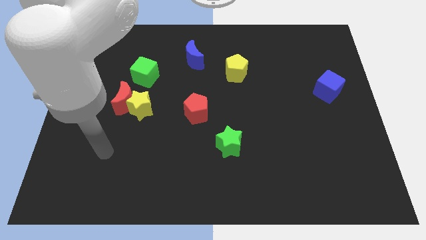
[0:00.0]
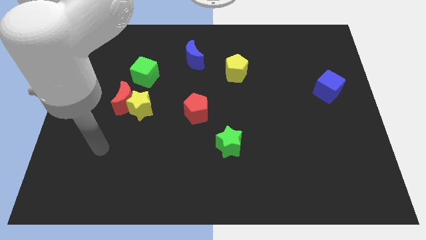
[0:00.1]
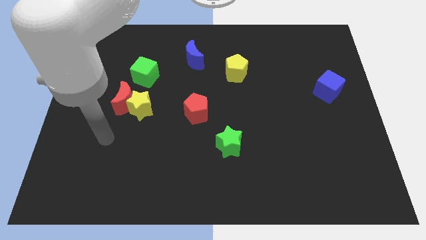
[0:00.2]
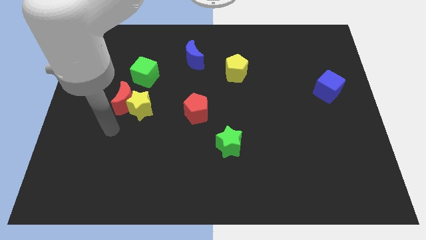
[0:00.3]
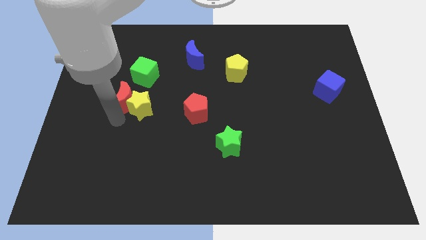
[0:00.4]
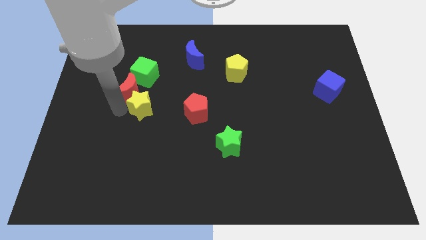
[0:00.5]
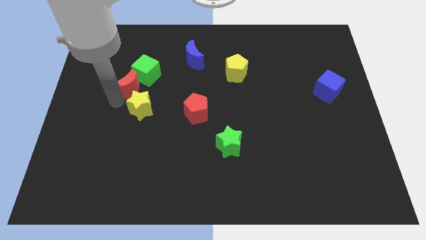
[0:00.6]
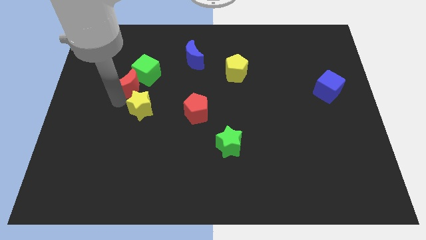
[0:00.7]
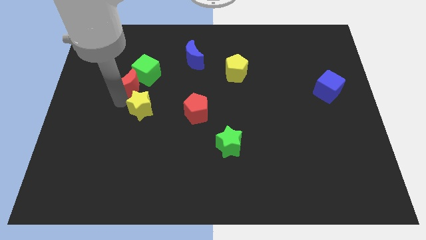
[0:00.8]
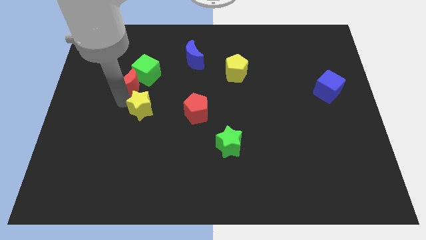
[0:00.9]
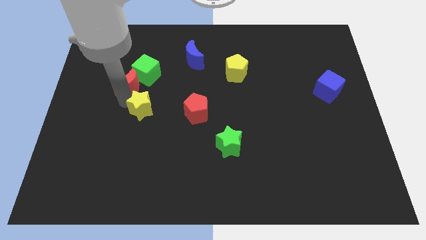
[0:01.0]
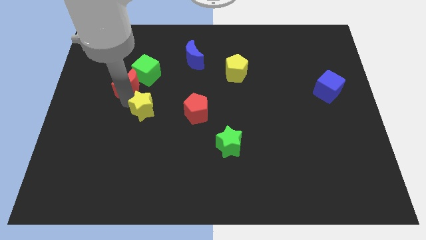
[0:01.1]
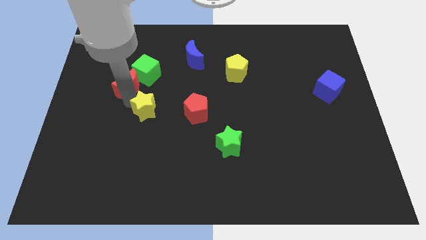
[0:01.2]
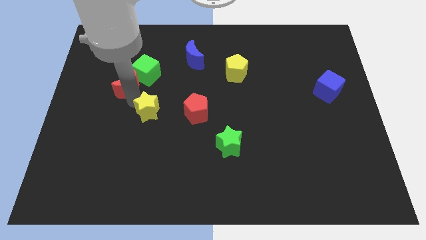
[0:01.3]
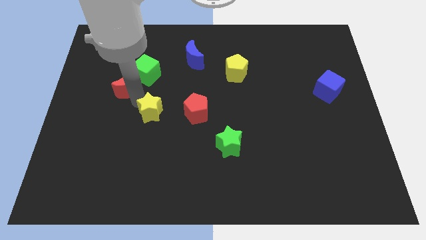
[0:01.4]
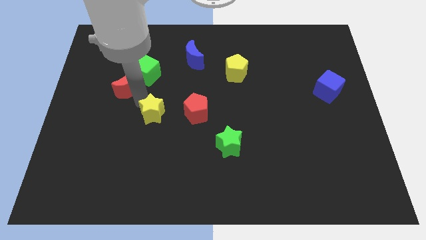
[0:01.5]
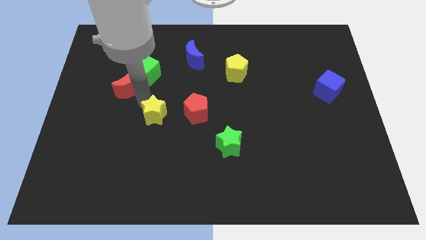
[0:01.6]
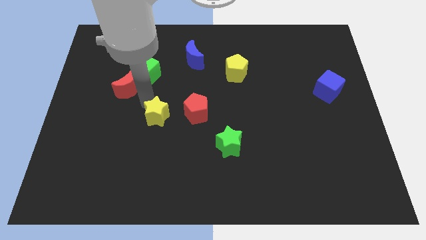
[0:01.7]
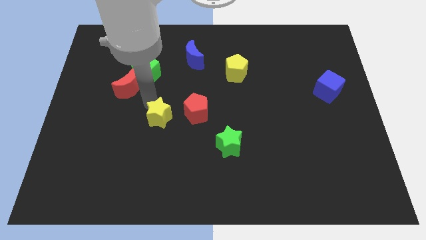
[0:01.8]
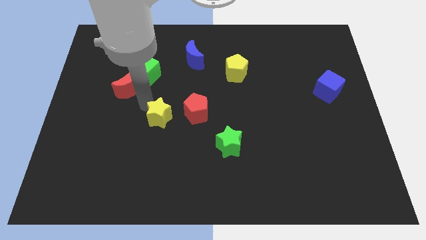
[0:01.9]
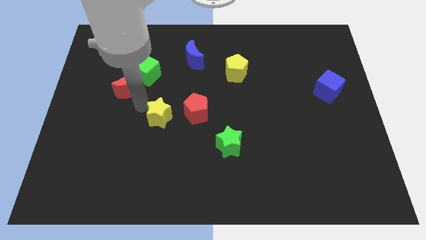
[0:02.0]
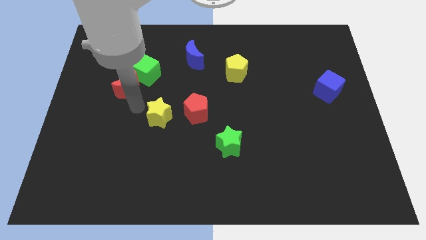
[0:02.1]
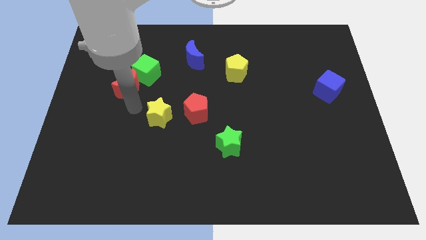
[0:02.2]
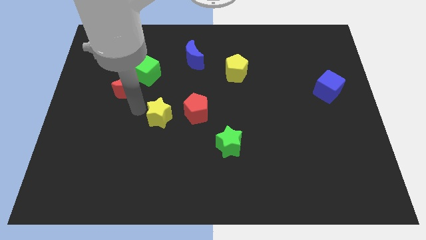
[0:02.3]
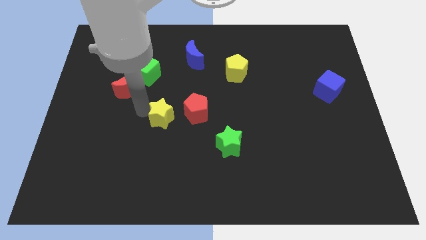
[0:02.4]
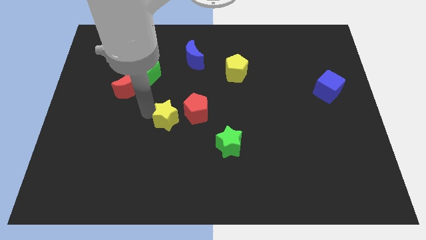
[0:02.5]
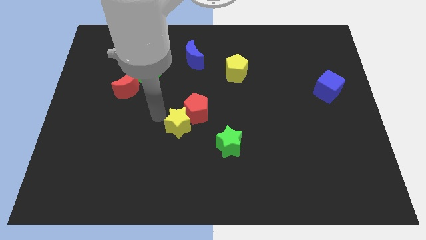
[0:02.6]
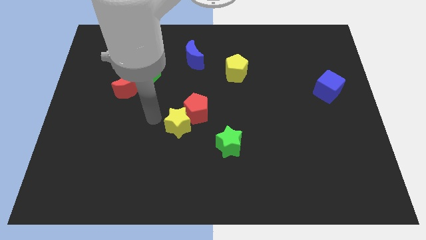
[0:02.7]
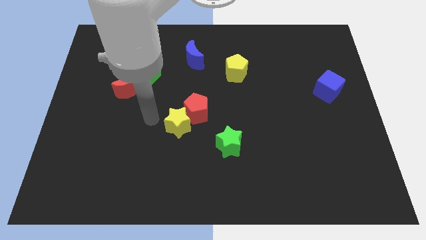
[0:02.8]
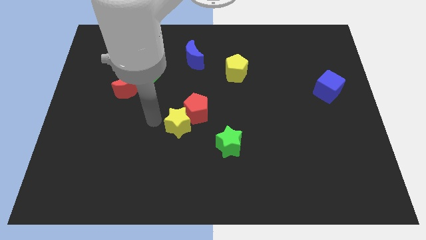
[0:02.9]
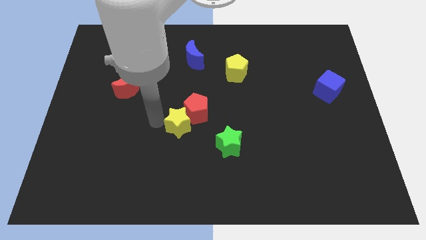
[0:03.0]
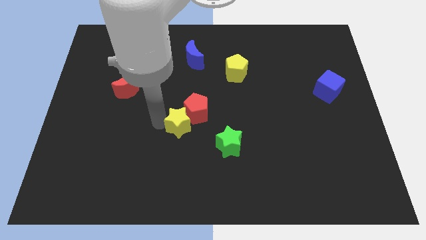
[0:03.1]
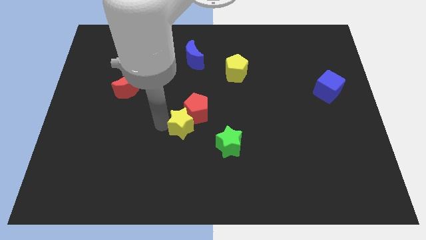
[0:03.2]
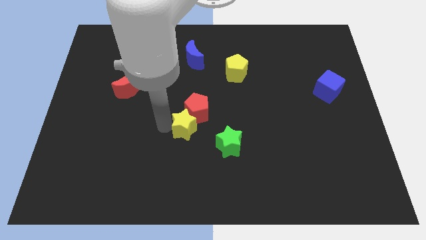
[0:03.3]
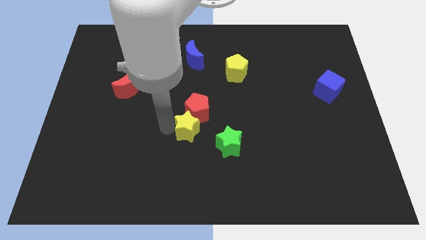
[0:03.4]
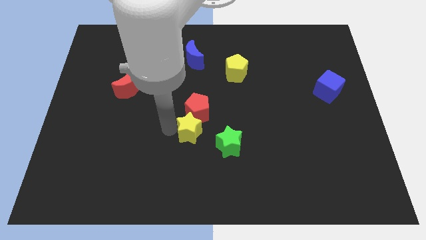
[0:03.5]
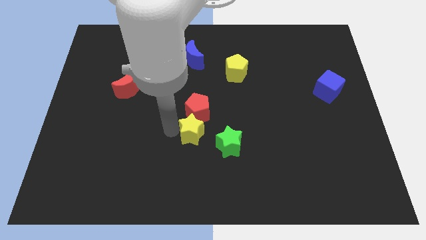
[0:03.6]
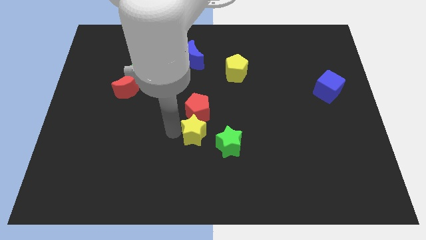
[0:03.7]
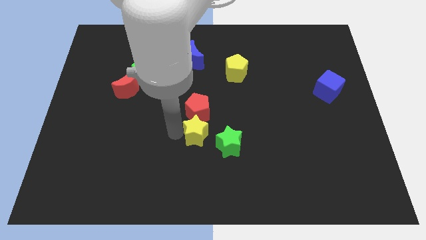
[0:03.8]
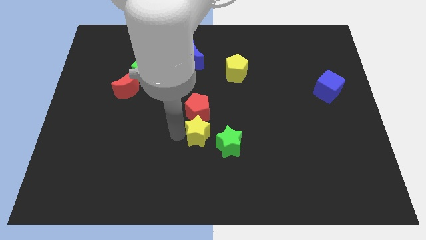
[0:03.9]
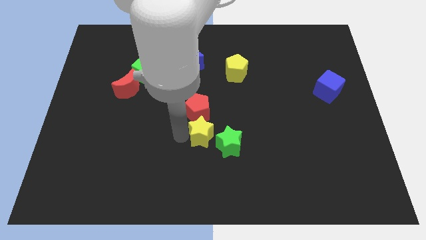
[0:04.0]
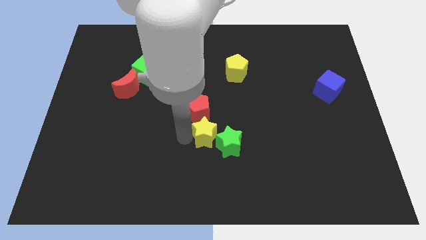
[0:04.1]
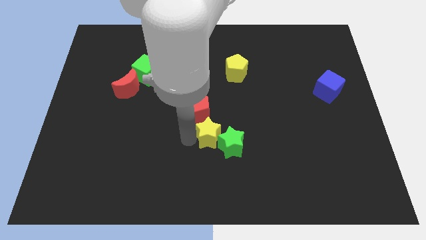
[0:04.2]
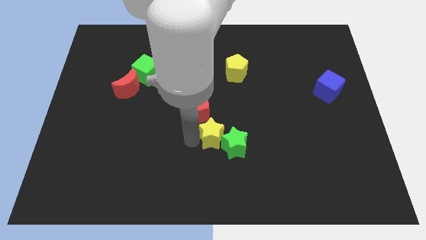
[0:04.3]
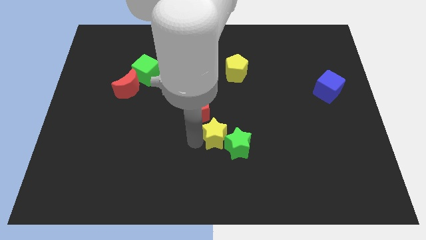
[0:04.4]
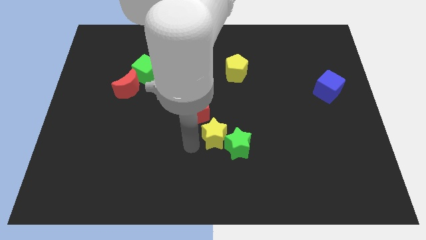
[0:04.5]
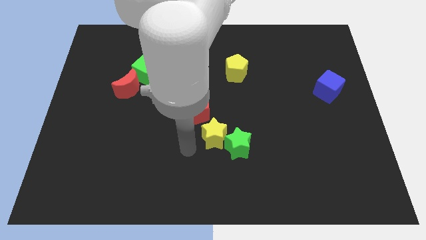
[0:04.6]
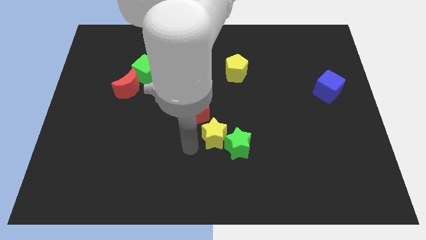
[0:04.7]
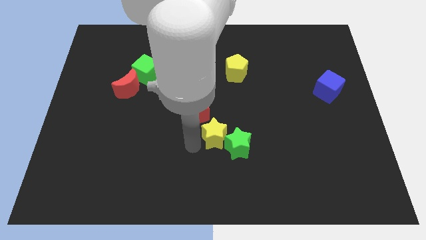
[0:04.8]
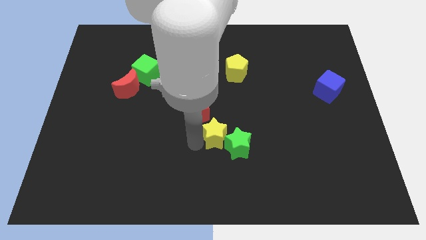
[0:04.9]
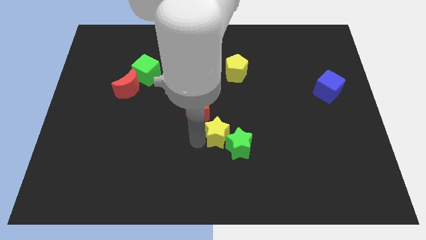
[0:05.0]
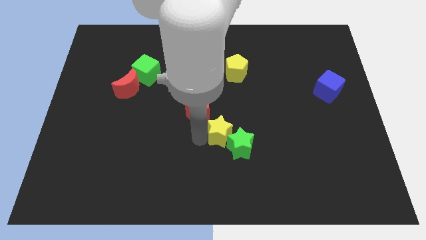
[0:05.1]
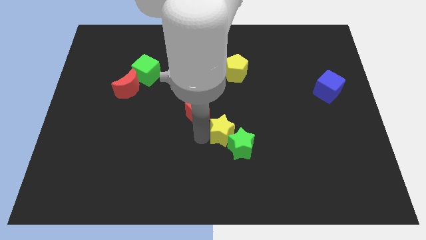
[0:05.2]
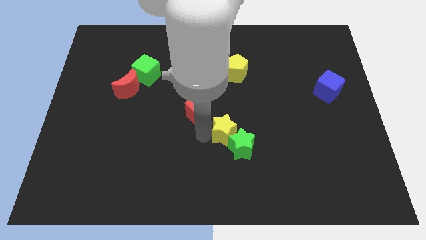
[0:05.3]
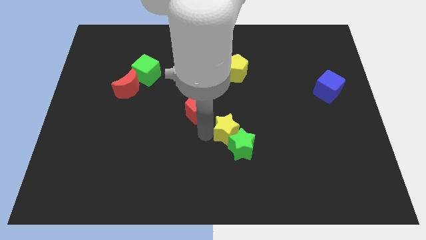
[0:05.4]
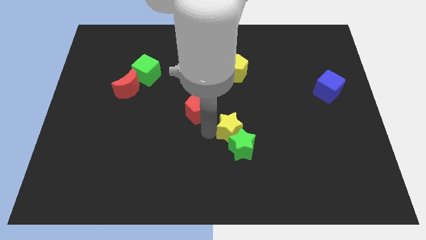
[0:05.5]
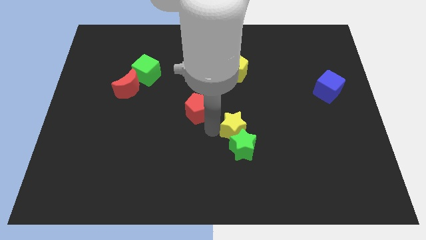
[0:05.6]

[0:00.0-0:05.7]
push the yellow star to the right

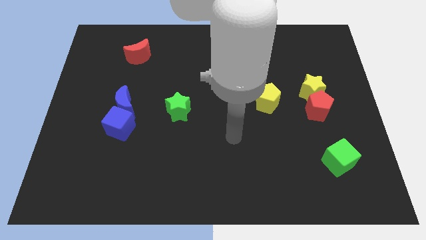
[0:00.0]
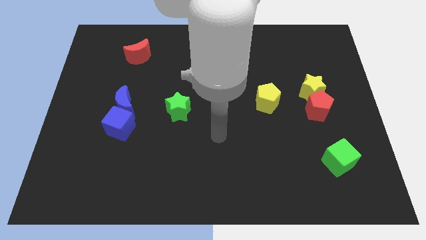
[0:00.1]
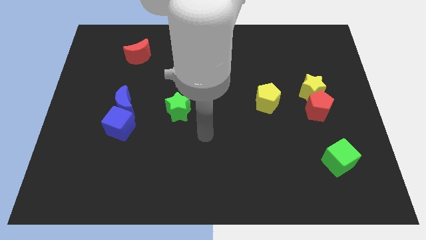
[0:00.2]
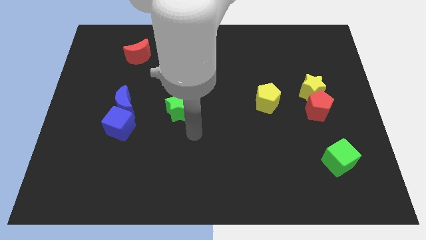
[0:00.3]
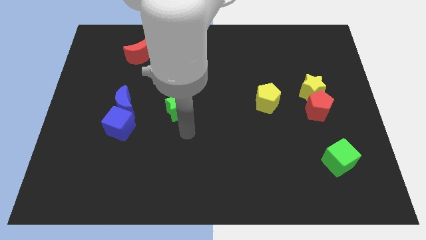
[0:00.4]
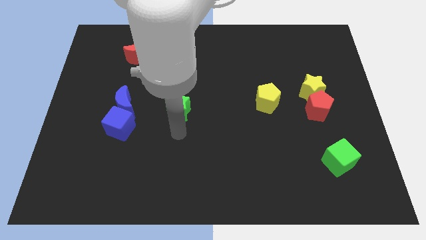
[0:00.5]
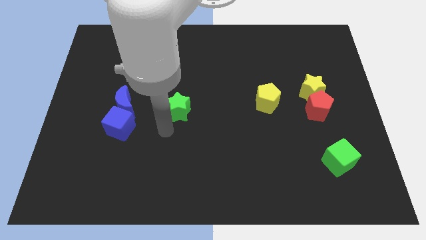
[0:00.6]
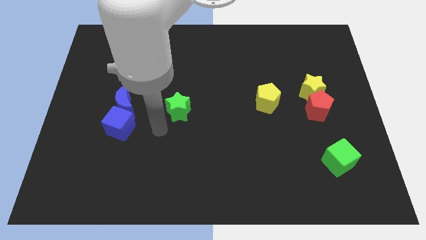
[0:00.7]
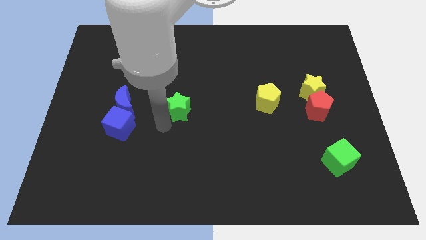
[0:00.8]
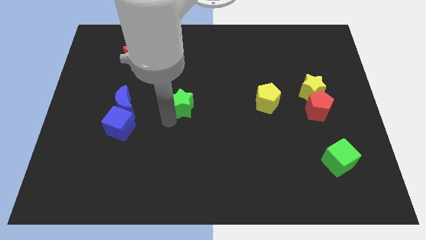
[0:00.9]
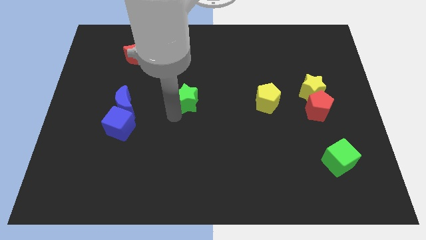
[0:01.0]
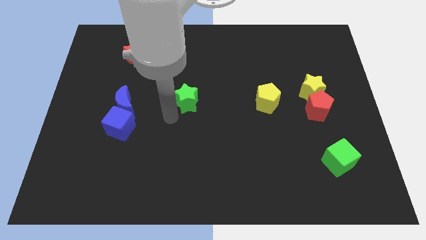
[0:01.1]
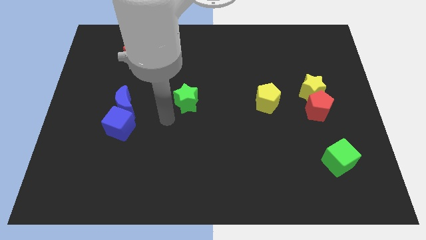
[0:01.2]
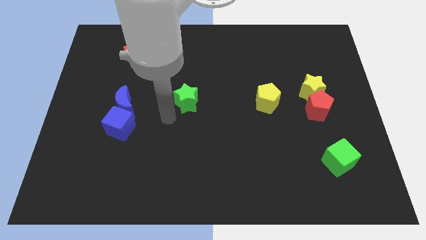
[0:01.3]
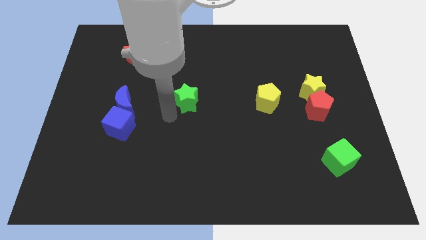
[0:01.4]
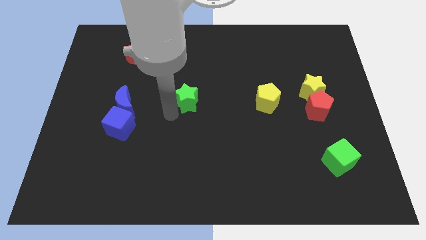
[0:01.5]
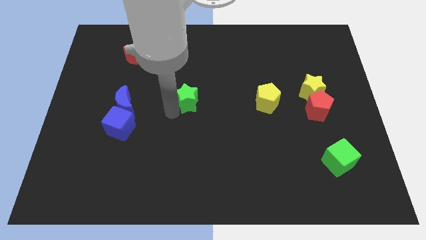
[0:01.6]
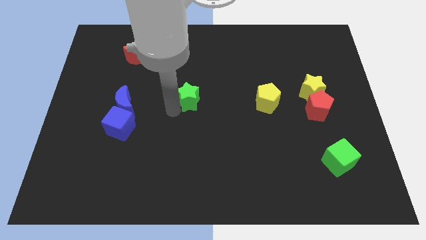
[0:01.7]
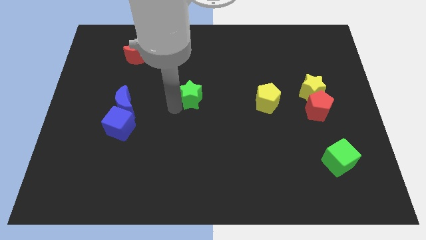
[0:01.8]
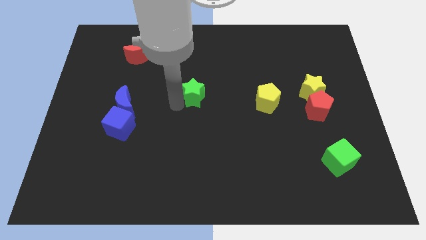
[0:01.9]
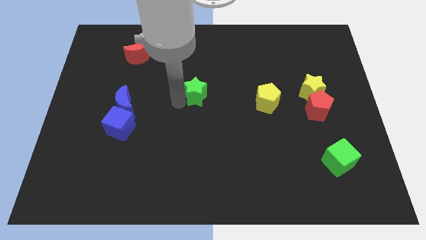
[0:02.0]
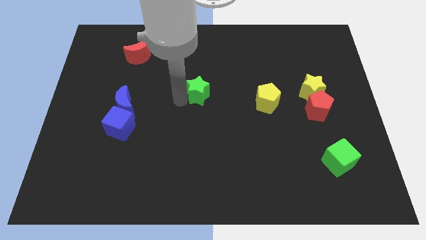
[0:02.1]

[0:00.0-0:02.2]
move the green star upwards and then to the right a bit

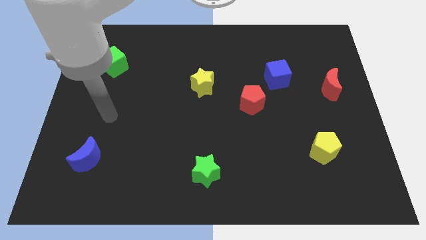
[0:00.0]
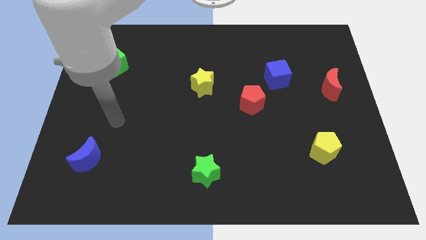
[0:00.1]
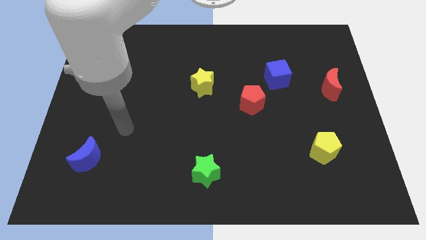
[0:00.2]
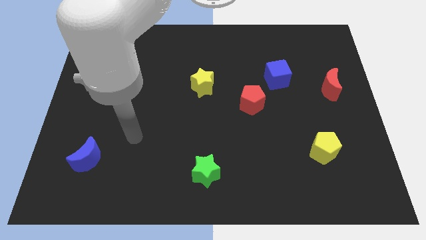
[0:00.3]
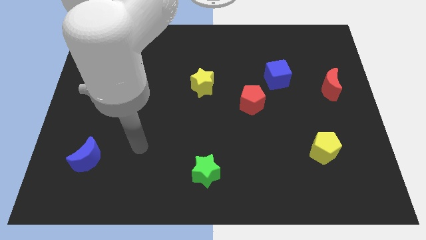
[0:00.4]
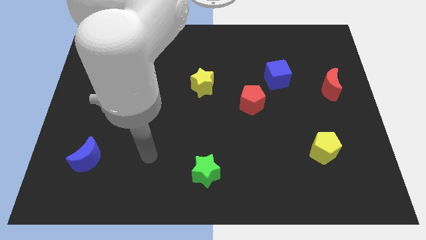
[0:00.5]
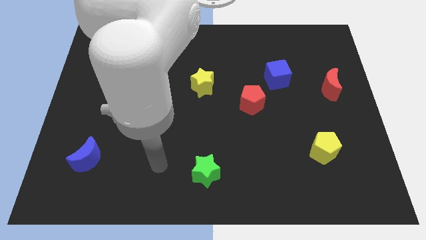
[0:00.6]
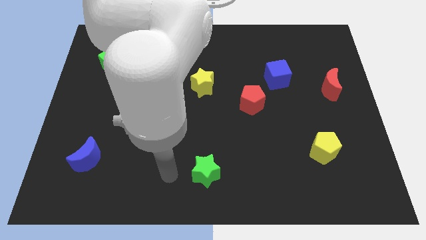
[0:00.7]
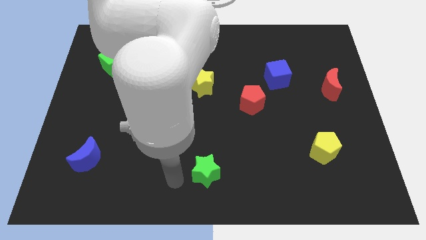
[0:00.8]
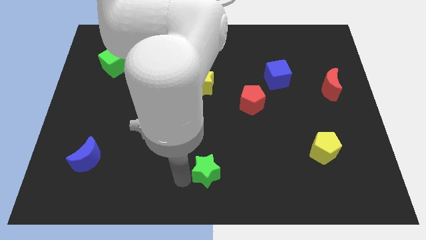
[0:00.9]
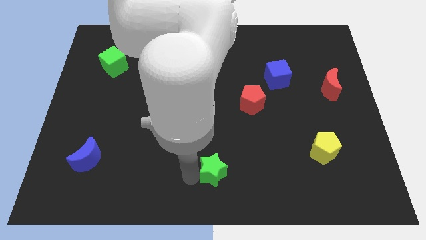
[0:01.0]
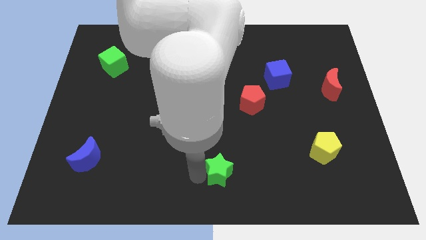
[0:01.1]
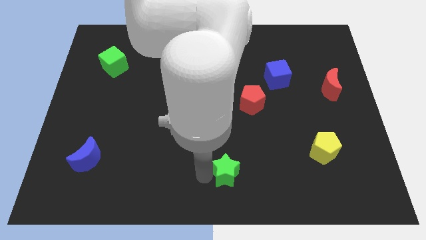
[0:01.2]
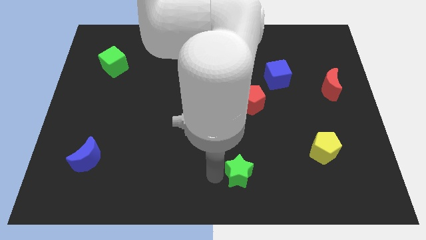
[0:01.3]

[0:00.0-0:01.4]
slide the green star slightly right
